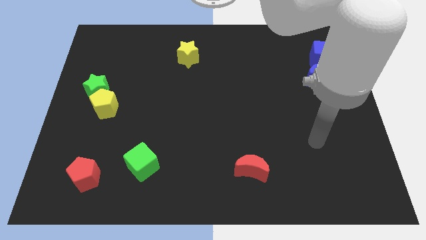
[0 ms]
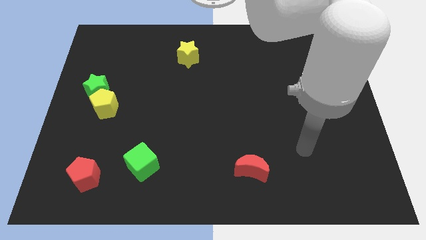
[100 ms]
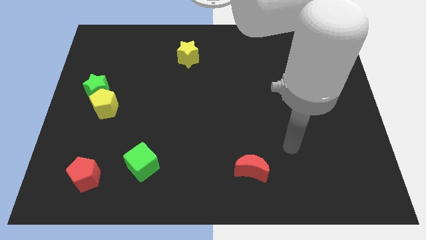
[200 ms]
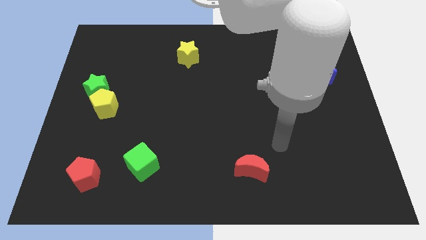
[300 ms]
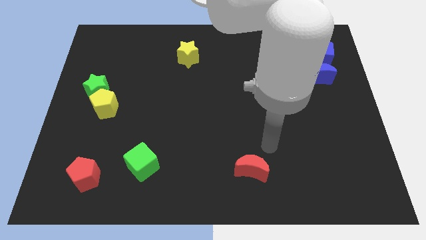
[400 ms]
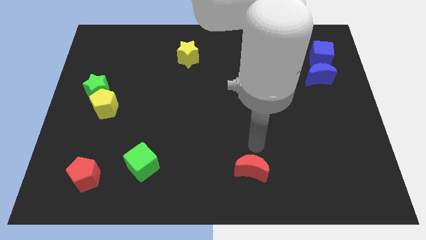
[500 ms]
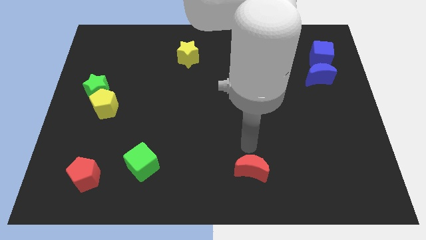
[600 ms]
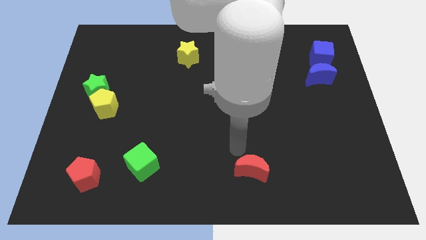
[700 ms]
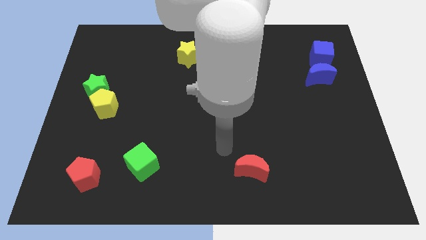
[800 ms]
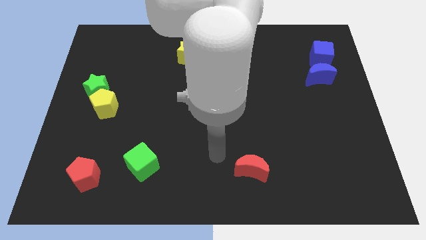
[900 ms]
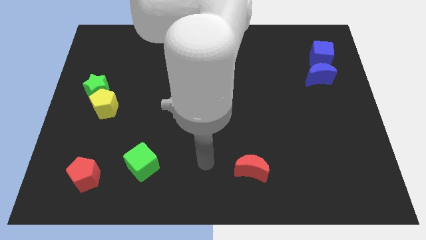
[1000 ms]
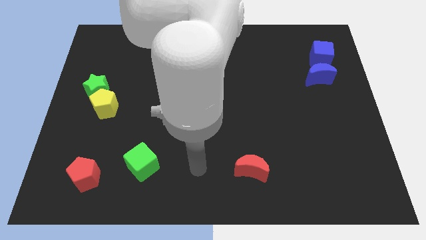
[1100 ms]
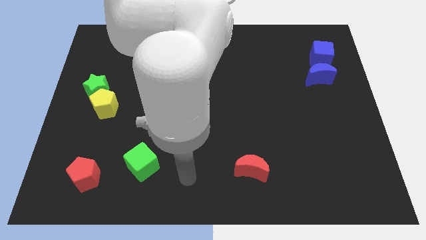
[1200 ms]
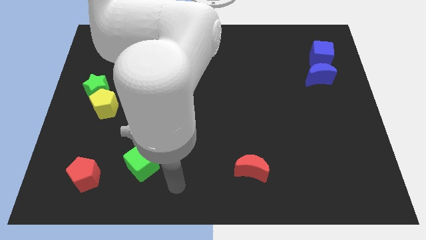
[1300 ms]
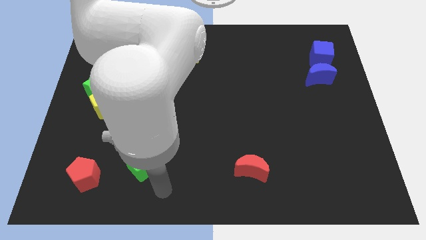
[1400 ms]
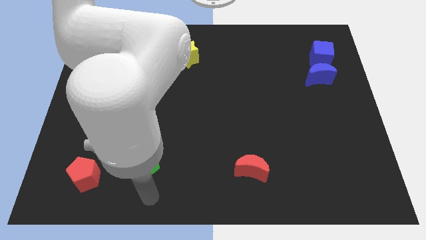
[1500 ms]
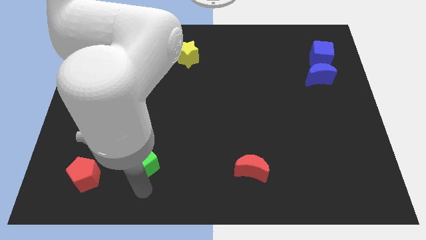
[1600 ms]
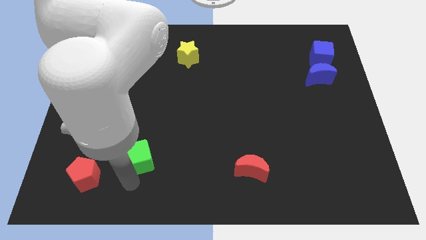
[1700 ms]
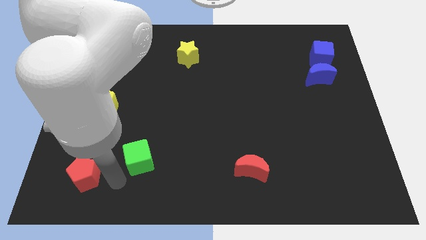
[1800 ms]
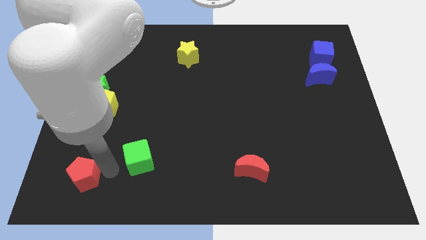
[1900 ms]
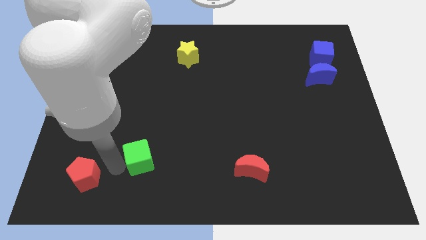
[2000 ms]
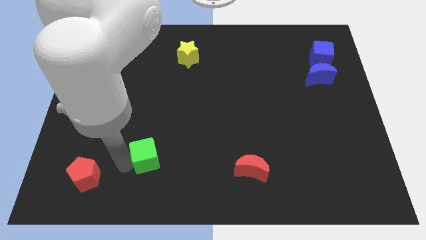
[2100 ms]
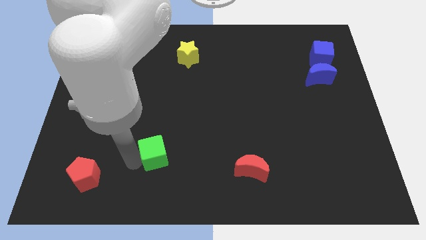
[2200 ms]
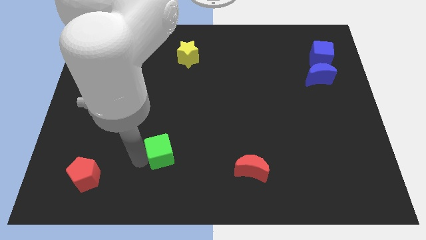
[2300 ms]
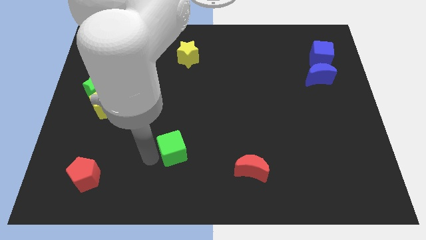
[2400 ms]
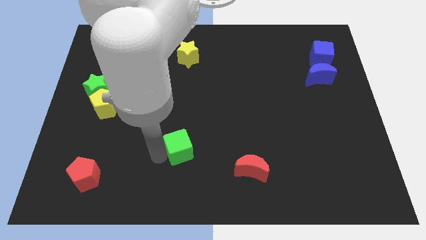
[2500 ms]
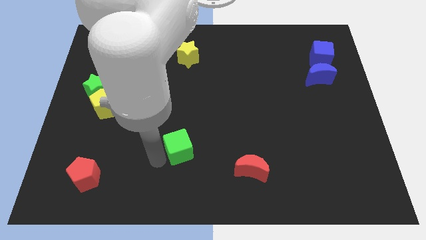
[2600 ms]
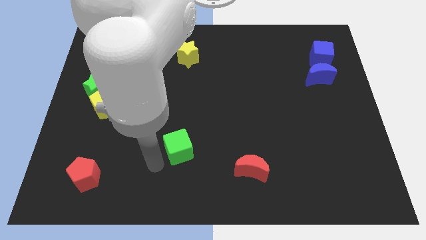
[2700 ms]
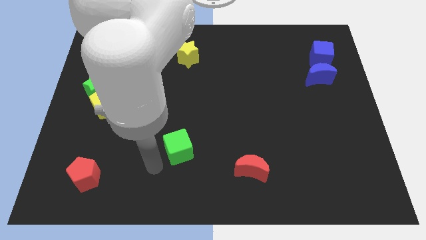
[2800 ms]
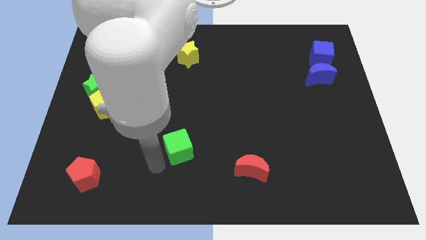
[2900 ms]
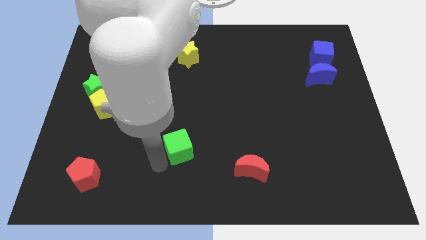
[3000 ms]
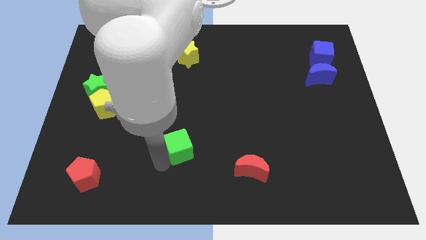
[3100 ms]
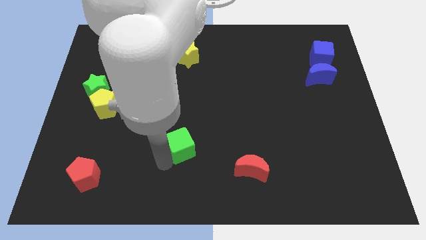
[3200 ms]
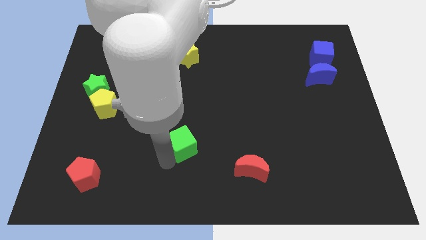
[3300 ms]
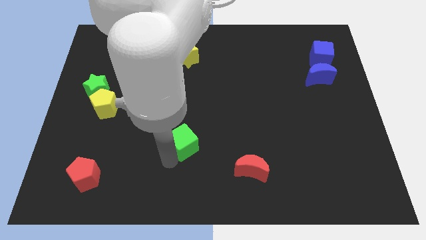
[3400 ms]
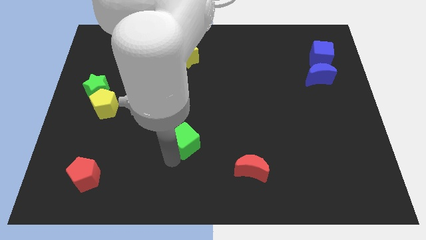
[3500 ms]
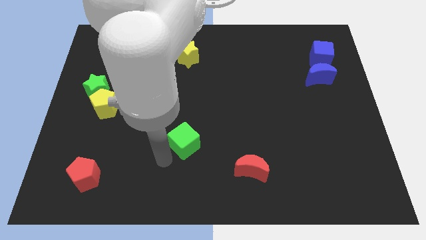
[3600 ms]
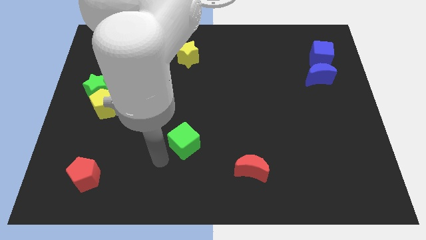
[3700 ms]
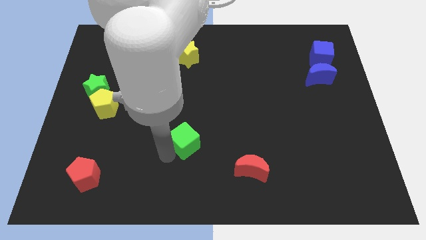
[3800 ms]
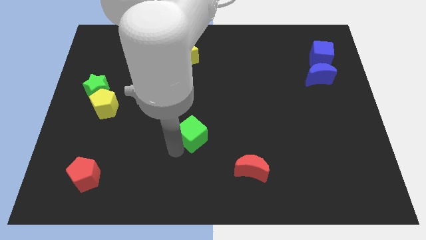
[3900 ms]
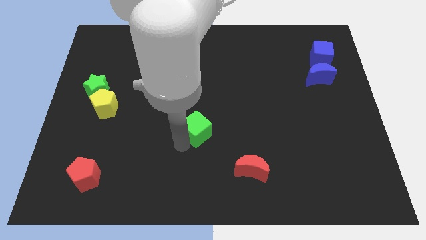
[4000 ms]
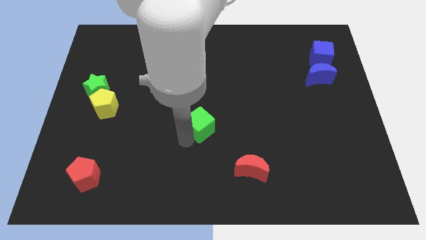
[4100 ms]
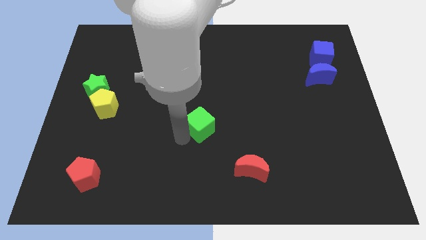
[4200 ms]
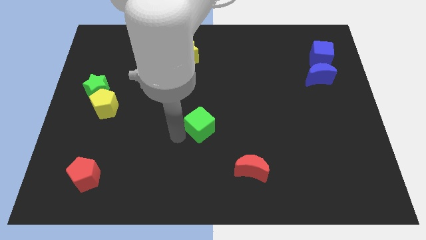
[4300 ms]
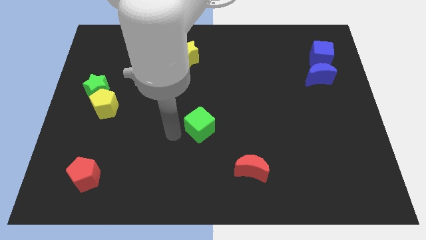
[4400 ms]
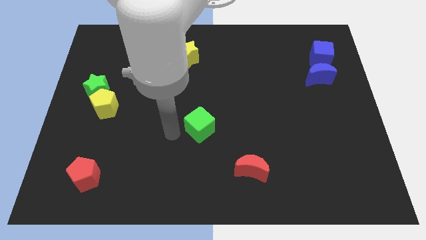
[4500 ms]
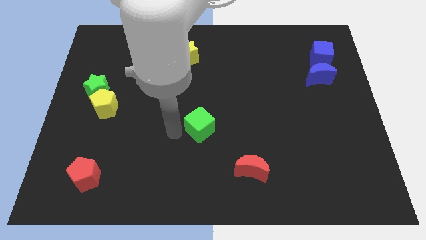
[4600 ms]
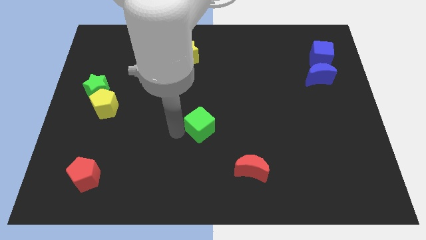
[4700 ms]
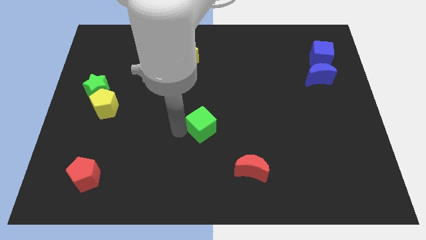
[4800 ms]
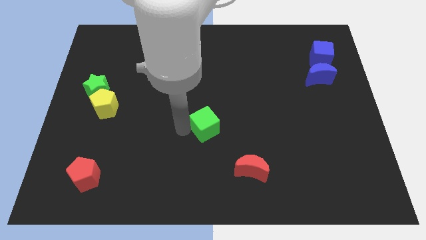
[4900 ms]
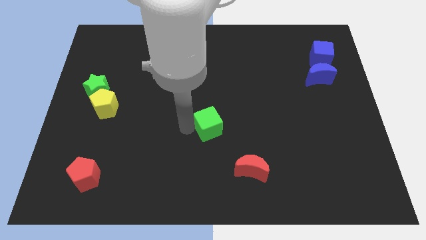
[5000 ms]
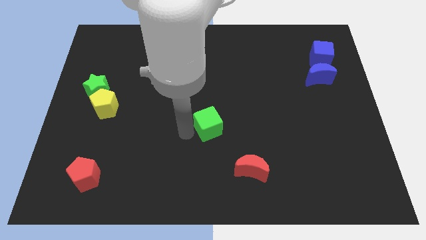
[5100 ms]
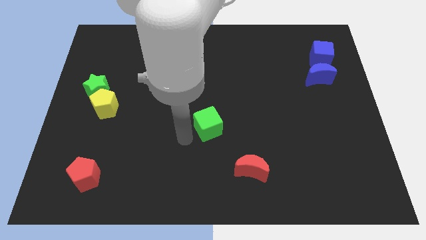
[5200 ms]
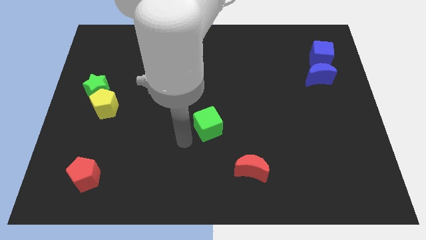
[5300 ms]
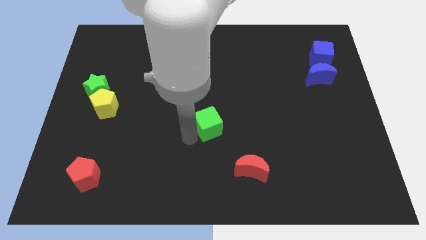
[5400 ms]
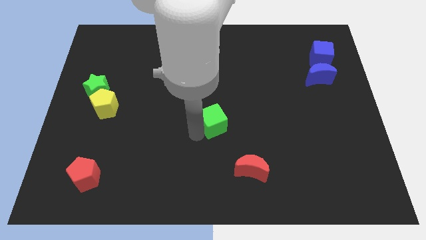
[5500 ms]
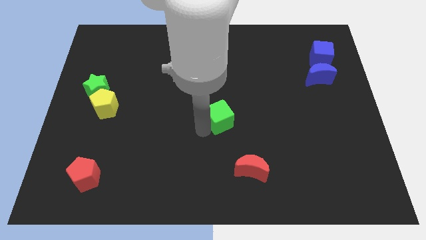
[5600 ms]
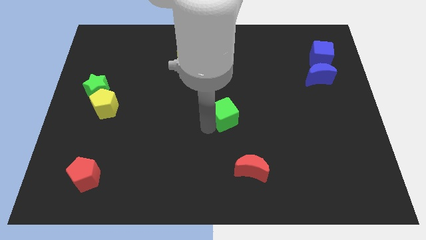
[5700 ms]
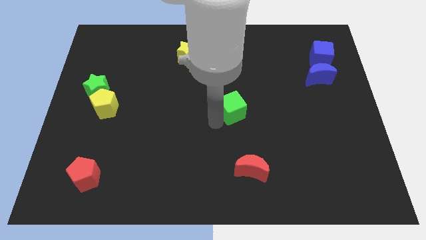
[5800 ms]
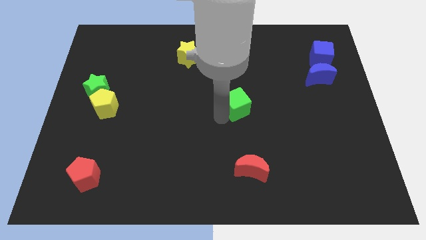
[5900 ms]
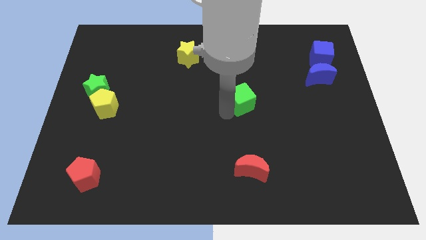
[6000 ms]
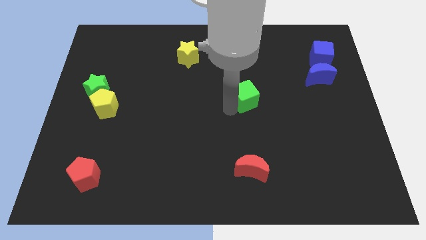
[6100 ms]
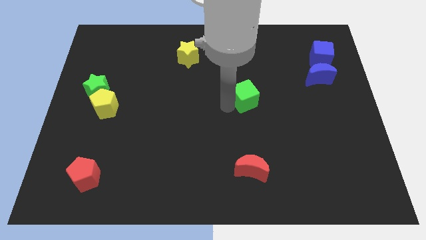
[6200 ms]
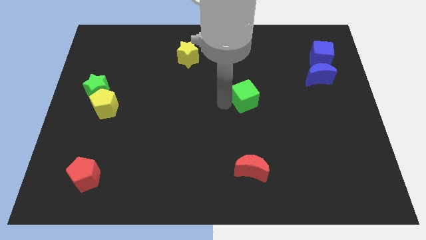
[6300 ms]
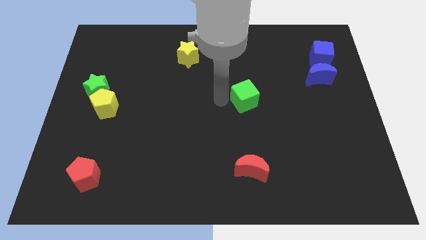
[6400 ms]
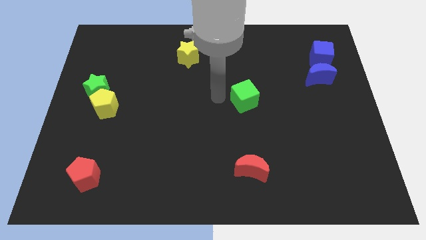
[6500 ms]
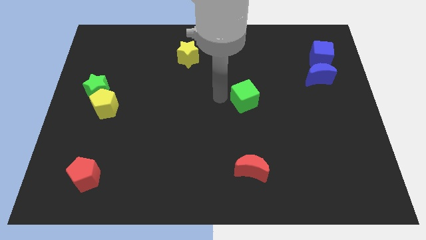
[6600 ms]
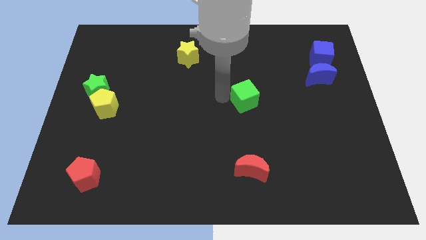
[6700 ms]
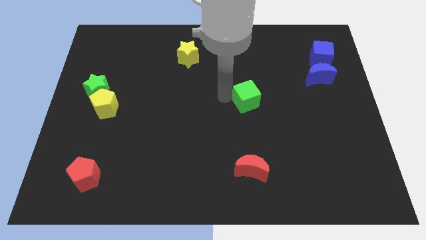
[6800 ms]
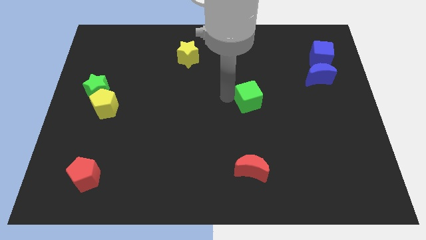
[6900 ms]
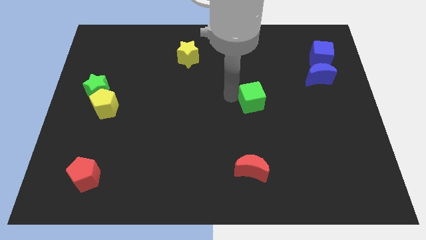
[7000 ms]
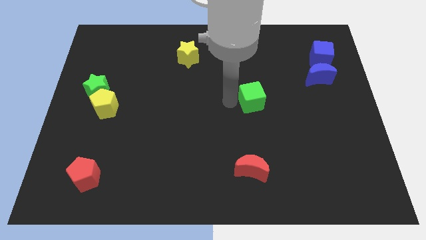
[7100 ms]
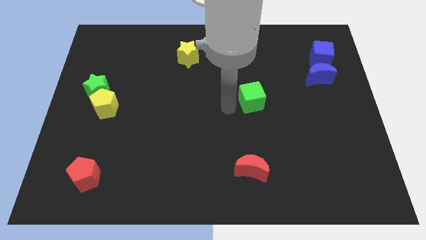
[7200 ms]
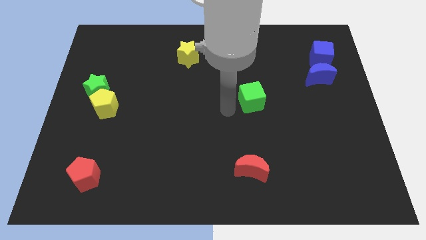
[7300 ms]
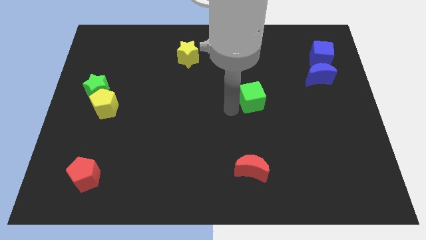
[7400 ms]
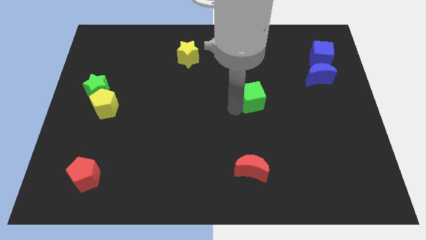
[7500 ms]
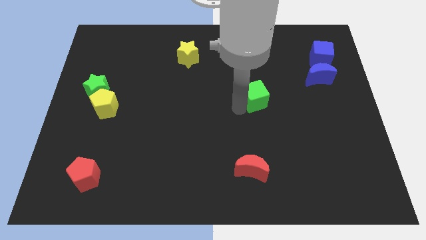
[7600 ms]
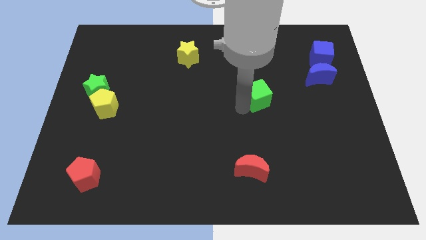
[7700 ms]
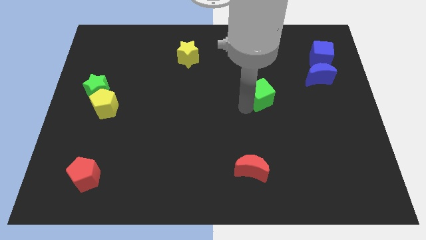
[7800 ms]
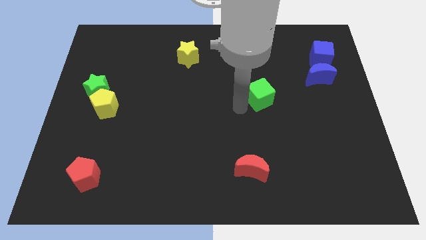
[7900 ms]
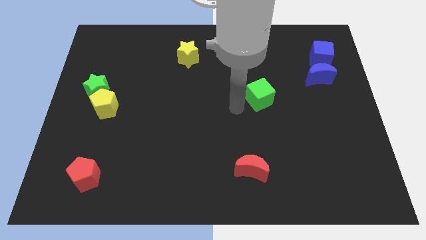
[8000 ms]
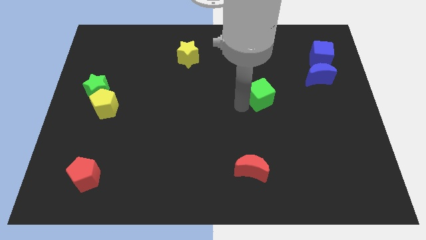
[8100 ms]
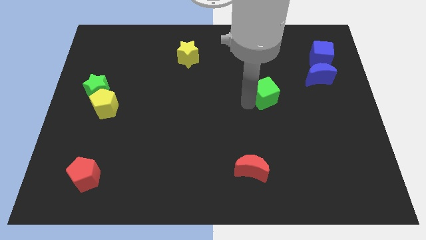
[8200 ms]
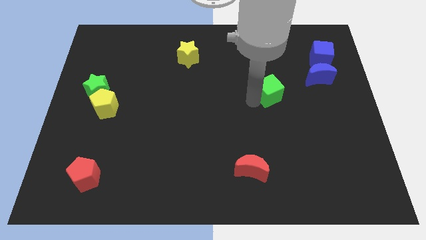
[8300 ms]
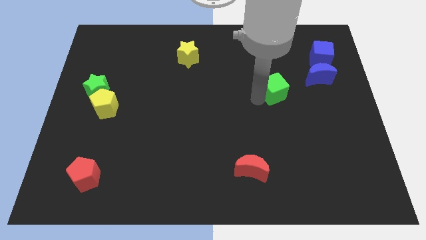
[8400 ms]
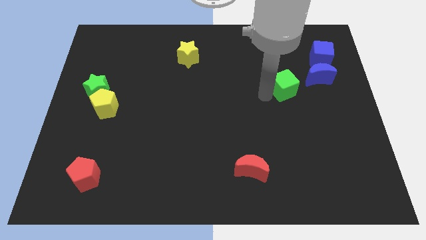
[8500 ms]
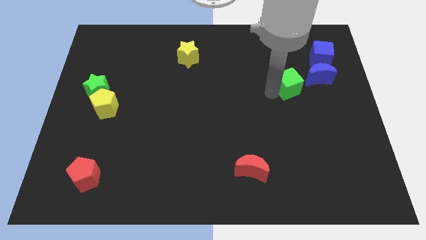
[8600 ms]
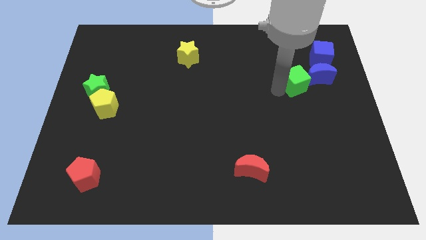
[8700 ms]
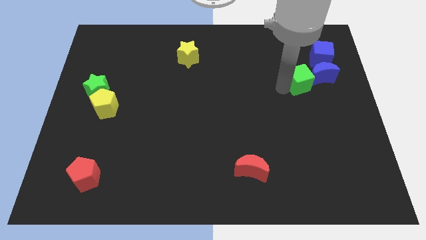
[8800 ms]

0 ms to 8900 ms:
put the green cube close to the blue moon
